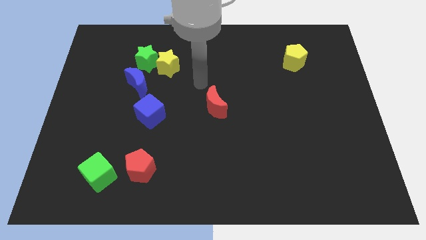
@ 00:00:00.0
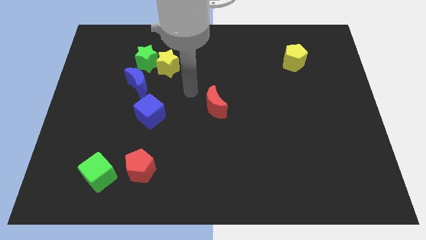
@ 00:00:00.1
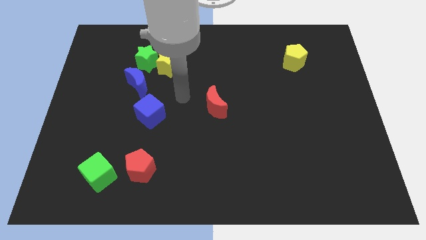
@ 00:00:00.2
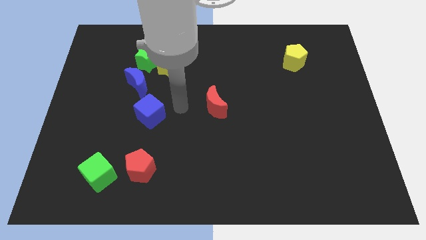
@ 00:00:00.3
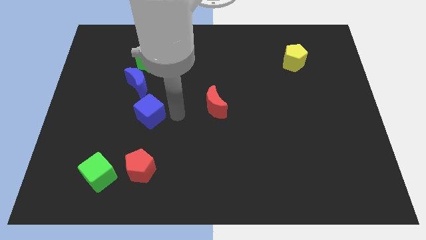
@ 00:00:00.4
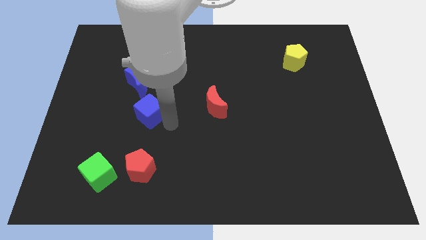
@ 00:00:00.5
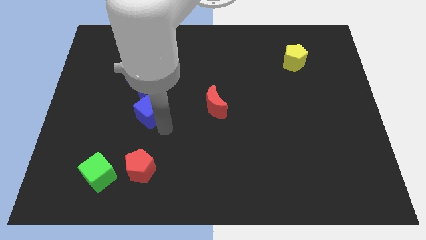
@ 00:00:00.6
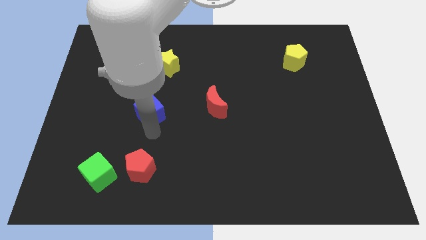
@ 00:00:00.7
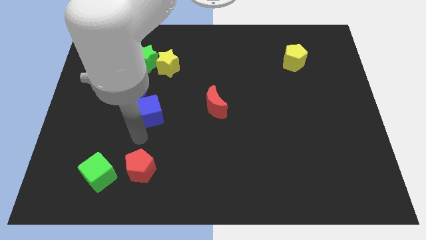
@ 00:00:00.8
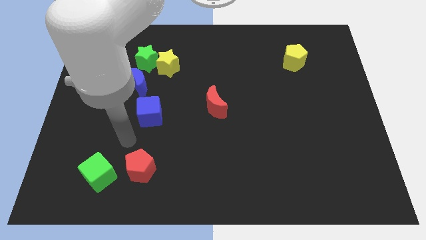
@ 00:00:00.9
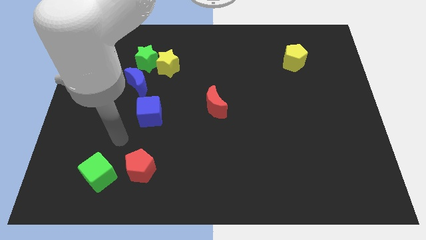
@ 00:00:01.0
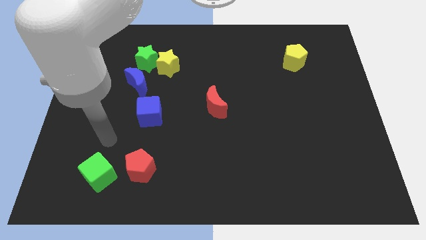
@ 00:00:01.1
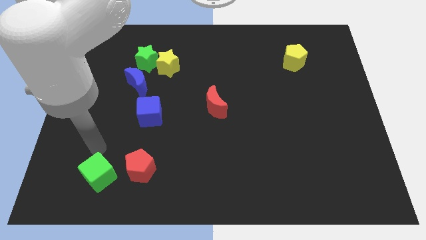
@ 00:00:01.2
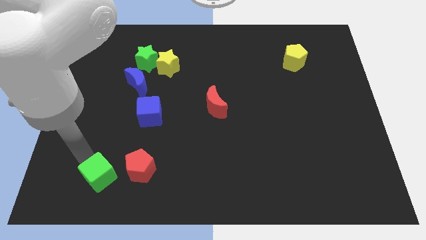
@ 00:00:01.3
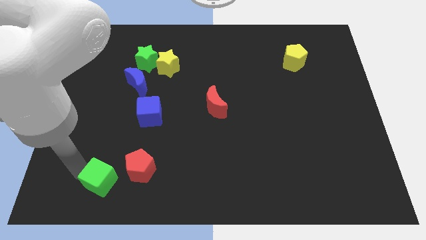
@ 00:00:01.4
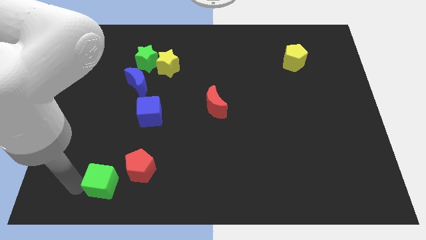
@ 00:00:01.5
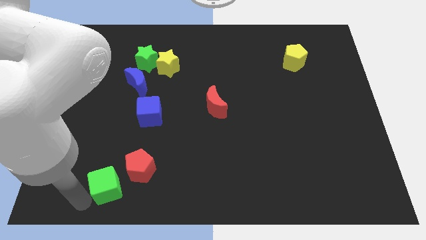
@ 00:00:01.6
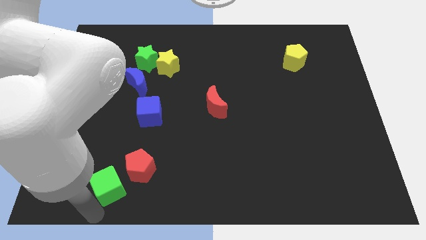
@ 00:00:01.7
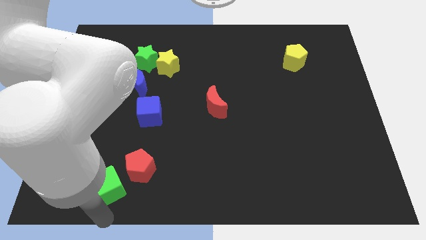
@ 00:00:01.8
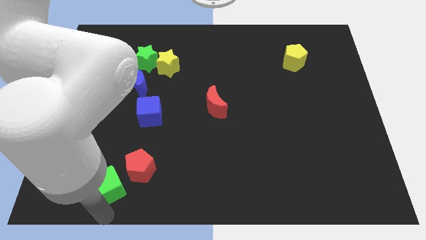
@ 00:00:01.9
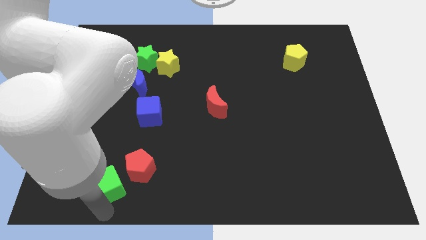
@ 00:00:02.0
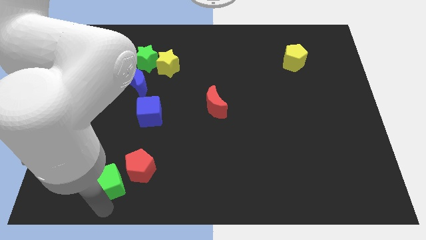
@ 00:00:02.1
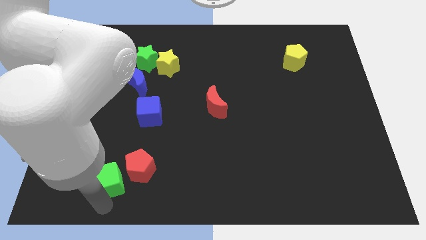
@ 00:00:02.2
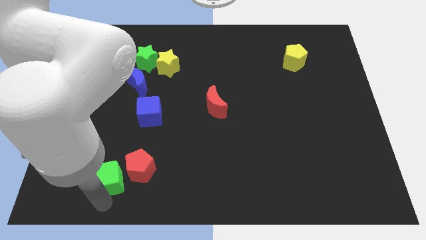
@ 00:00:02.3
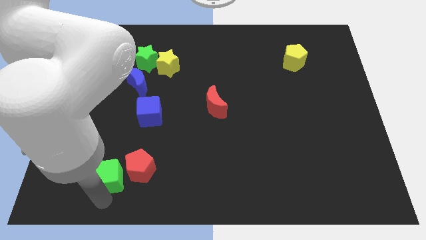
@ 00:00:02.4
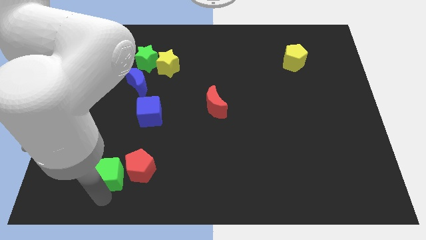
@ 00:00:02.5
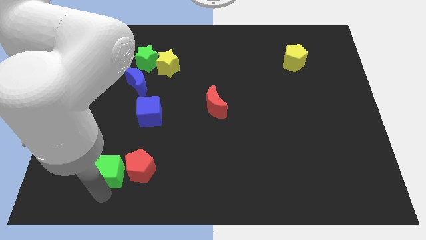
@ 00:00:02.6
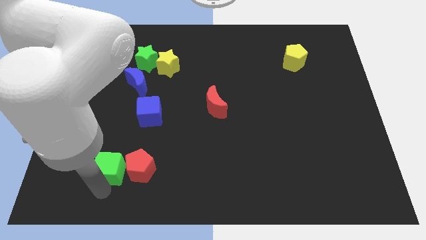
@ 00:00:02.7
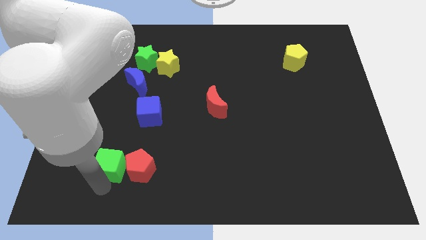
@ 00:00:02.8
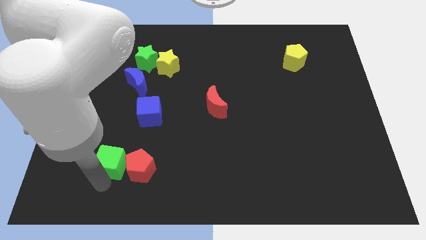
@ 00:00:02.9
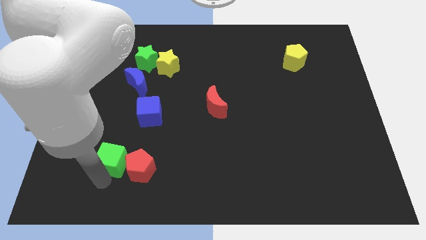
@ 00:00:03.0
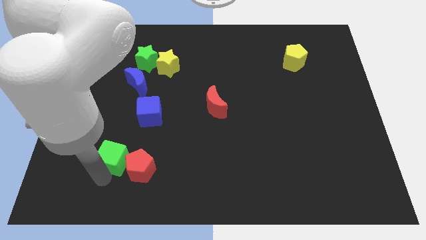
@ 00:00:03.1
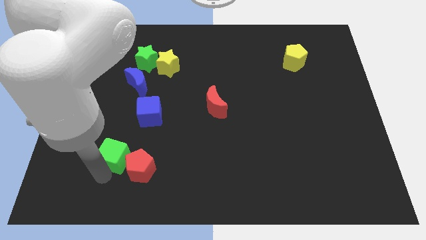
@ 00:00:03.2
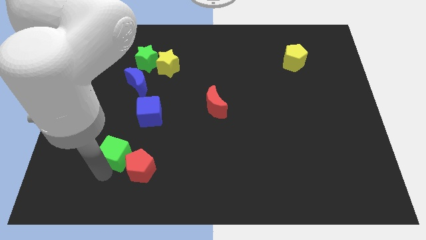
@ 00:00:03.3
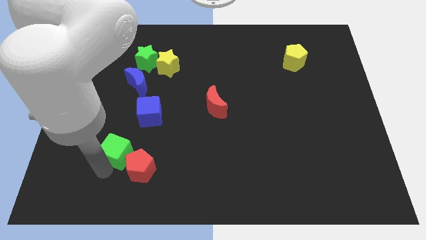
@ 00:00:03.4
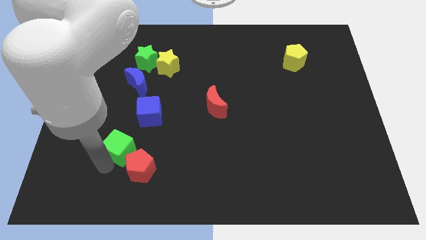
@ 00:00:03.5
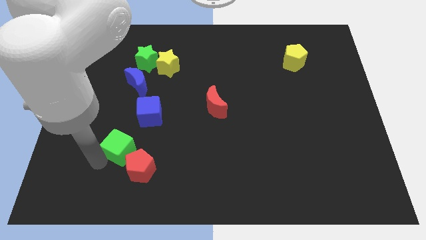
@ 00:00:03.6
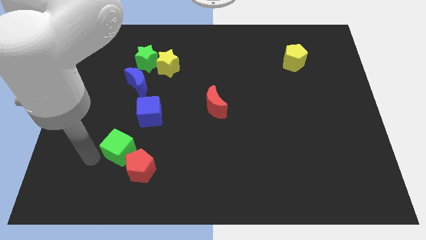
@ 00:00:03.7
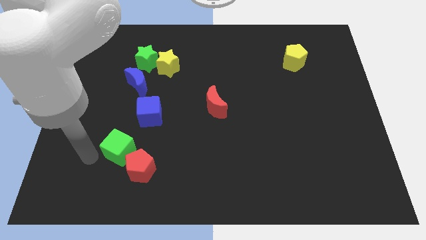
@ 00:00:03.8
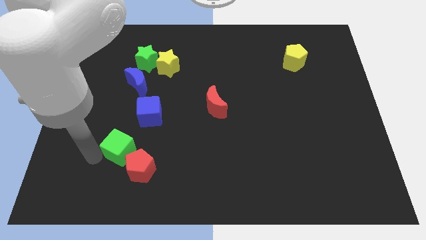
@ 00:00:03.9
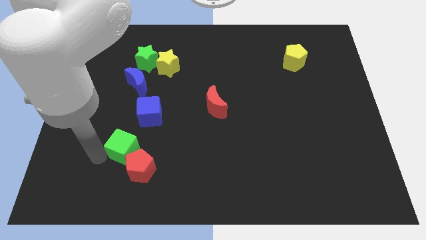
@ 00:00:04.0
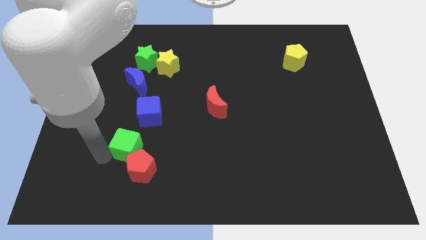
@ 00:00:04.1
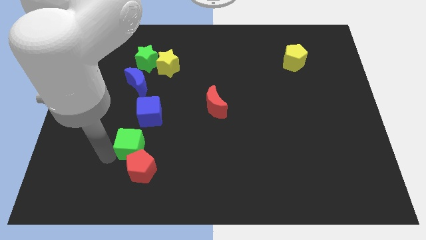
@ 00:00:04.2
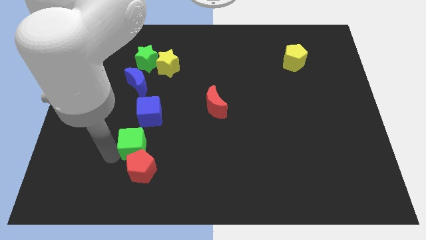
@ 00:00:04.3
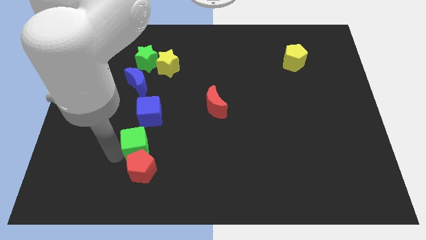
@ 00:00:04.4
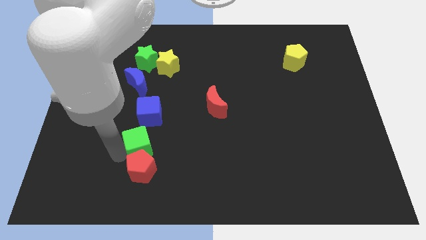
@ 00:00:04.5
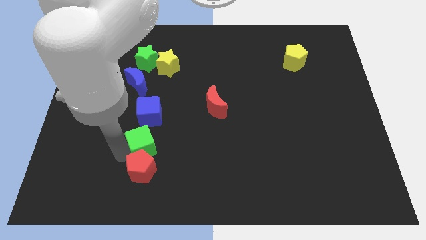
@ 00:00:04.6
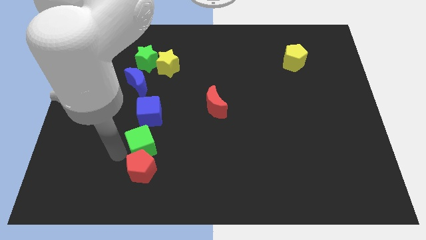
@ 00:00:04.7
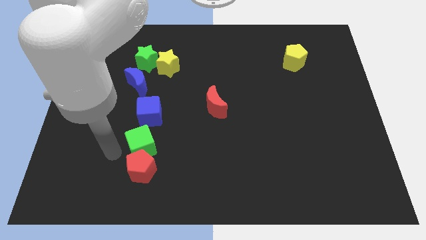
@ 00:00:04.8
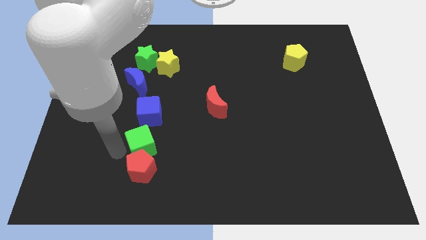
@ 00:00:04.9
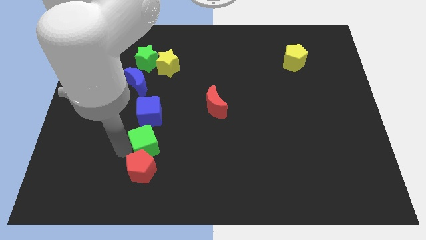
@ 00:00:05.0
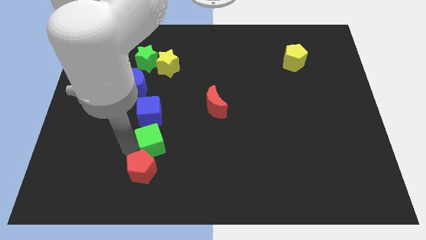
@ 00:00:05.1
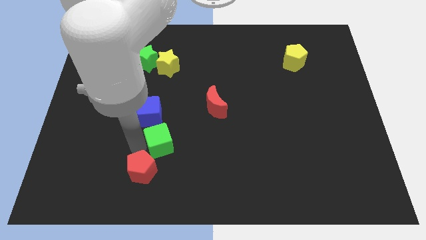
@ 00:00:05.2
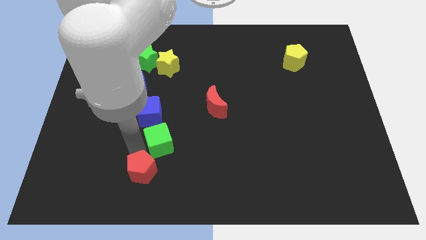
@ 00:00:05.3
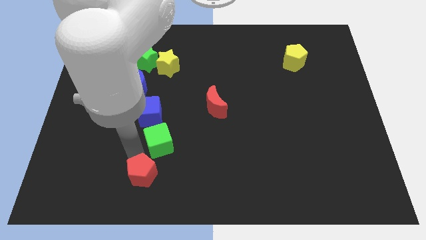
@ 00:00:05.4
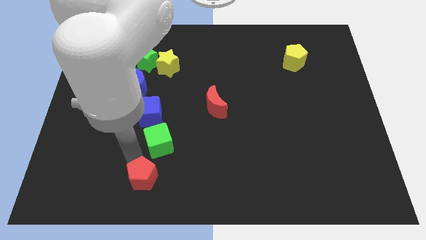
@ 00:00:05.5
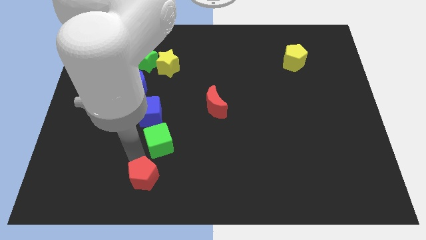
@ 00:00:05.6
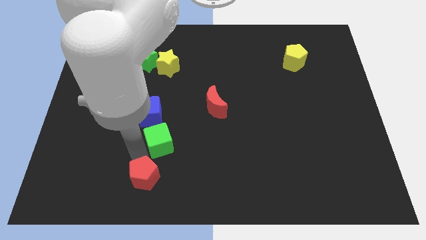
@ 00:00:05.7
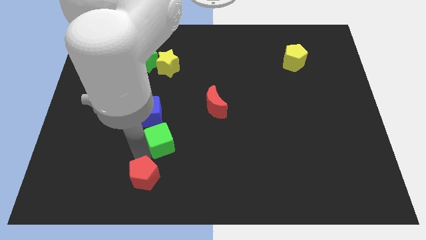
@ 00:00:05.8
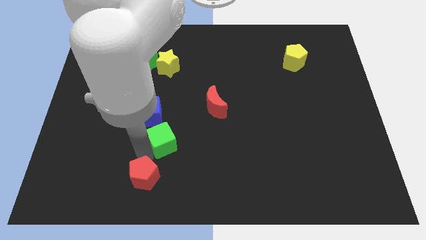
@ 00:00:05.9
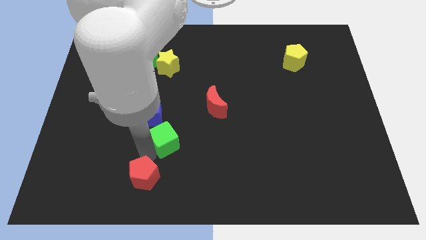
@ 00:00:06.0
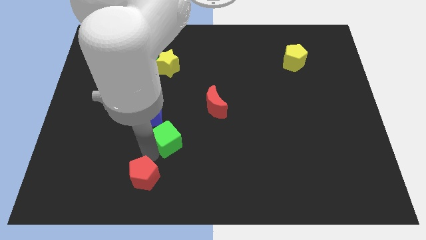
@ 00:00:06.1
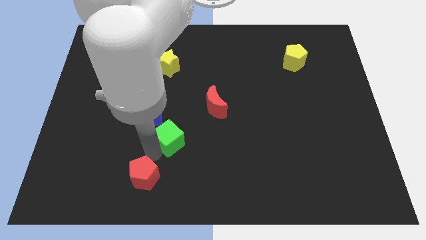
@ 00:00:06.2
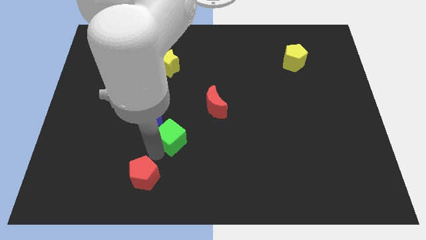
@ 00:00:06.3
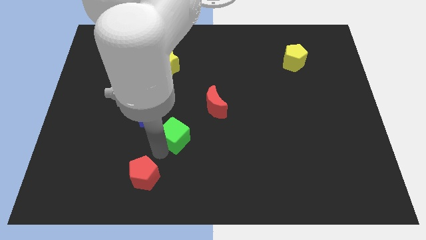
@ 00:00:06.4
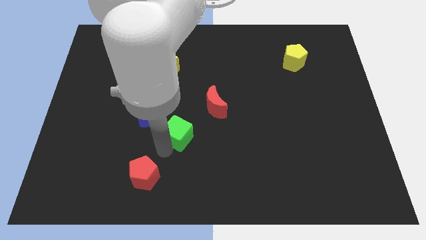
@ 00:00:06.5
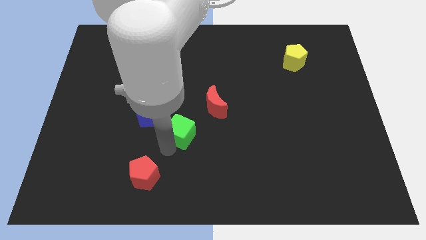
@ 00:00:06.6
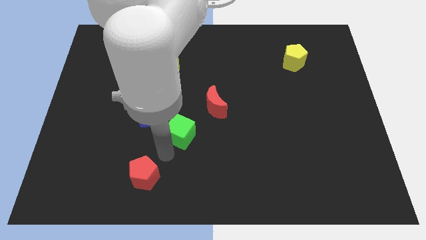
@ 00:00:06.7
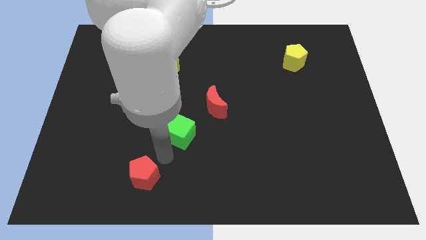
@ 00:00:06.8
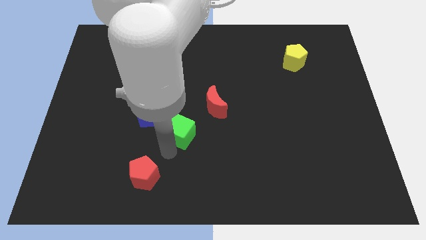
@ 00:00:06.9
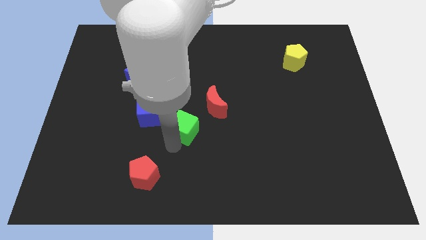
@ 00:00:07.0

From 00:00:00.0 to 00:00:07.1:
put the green cube to the right of the blue cube
